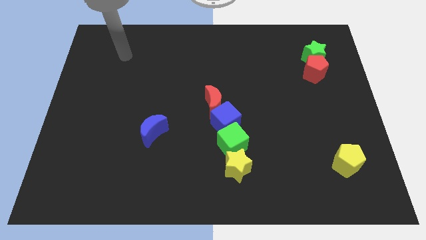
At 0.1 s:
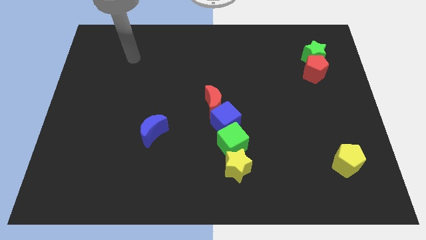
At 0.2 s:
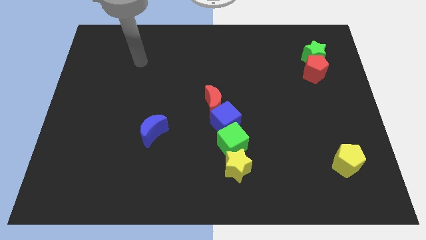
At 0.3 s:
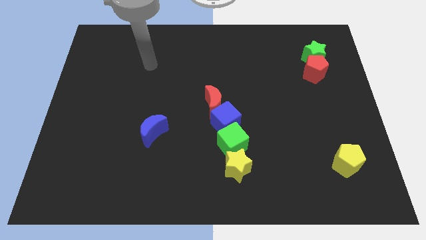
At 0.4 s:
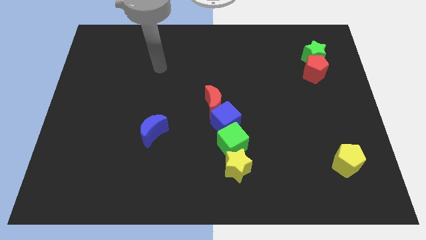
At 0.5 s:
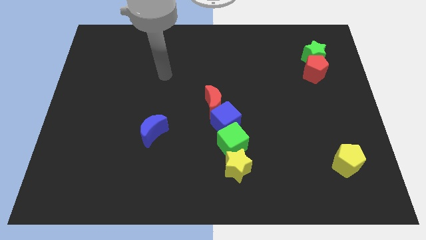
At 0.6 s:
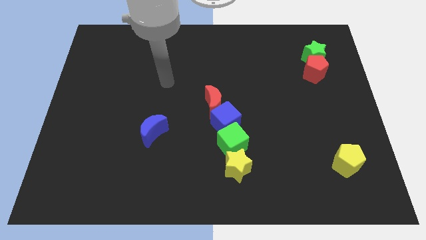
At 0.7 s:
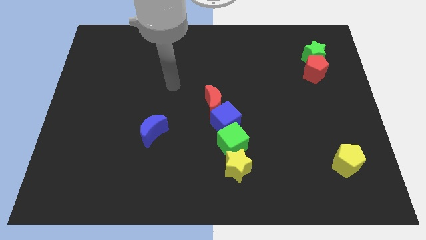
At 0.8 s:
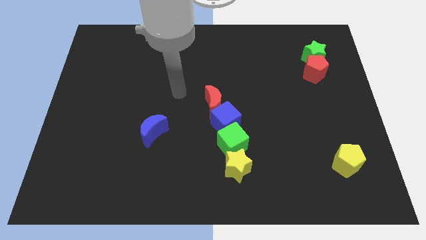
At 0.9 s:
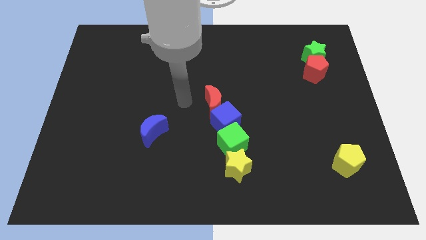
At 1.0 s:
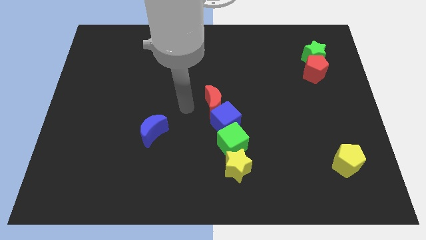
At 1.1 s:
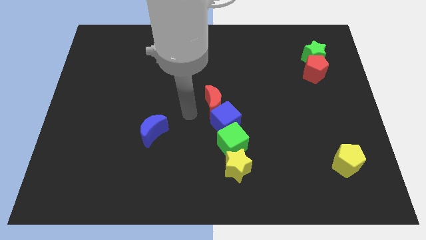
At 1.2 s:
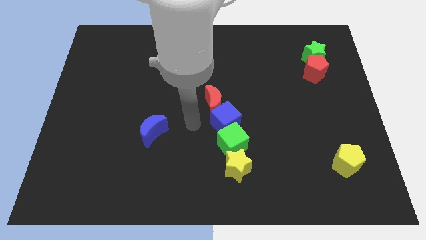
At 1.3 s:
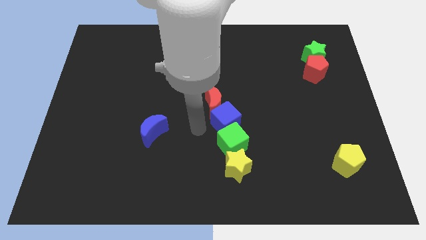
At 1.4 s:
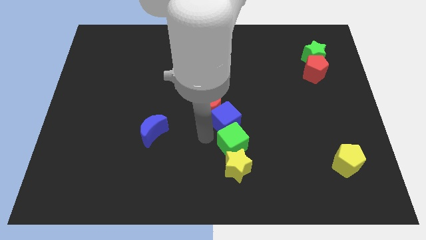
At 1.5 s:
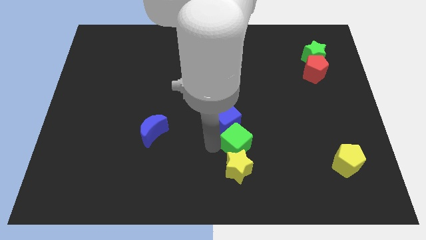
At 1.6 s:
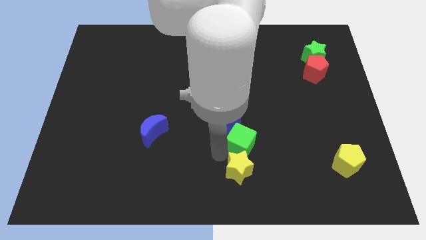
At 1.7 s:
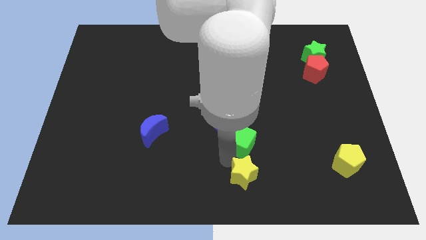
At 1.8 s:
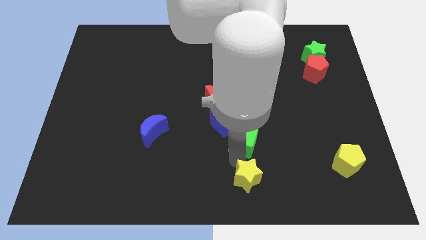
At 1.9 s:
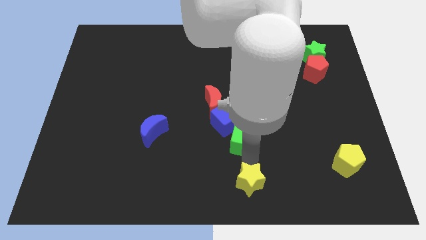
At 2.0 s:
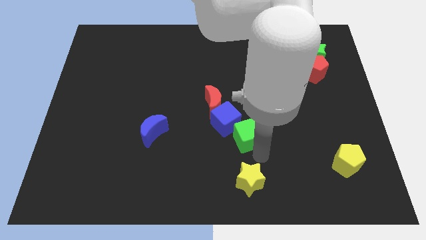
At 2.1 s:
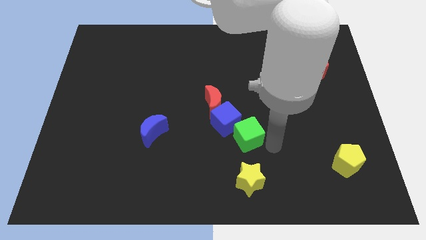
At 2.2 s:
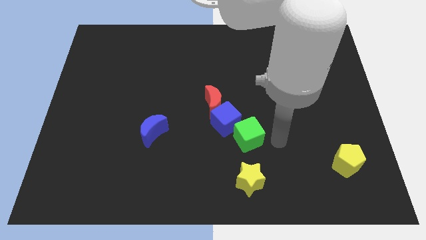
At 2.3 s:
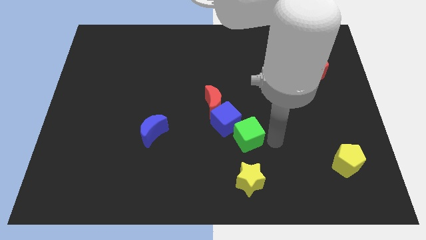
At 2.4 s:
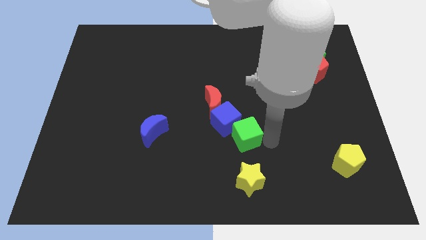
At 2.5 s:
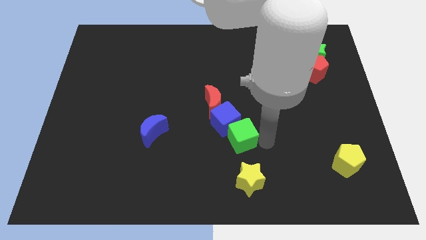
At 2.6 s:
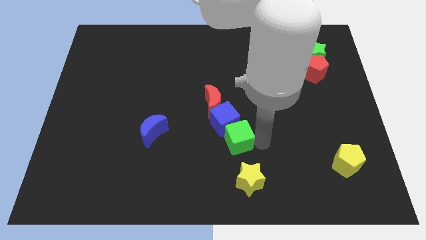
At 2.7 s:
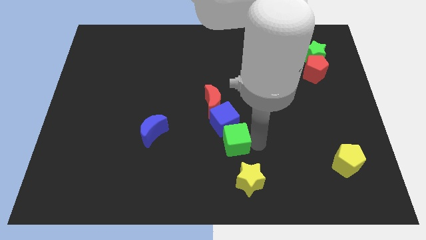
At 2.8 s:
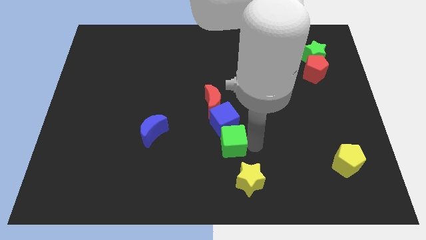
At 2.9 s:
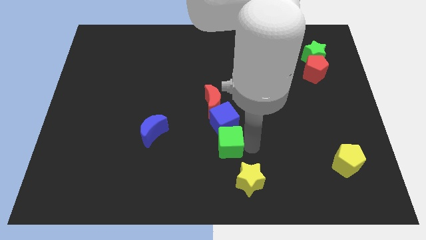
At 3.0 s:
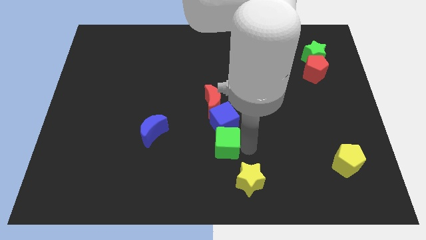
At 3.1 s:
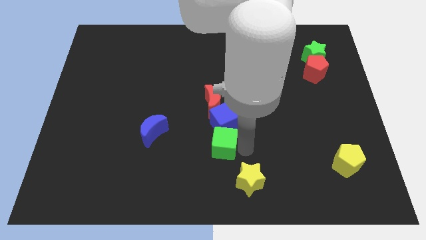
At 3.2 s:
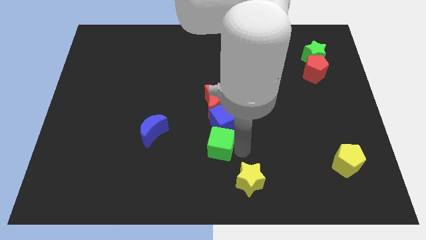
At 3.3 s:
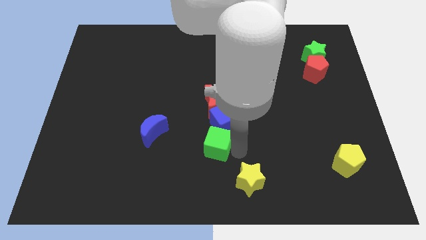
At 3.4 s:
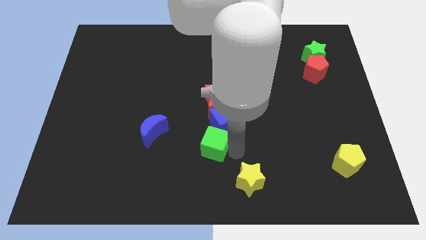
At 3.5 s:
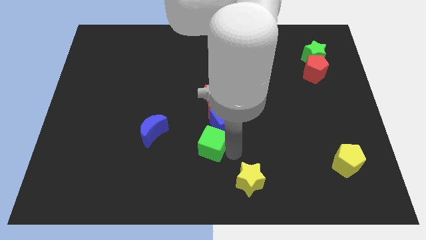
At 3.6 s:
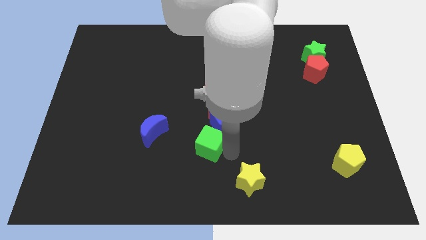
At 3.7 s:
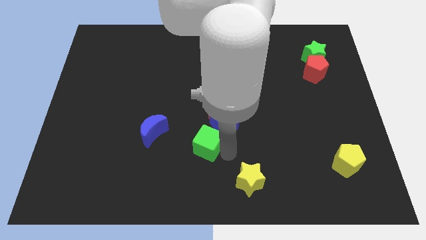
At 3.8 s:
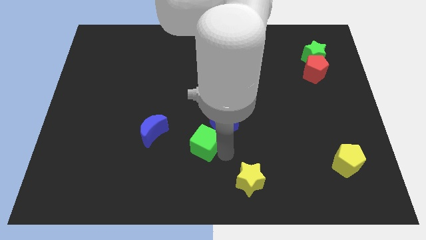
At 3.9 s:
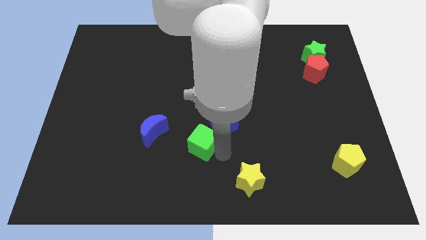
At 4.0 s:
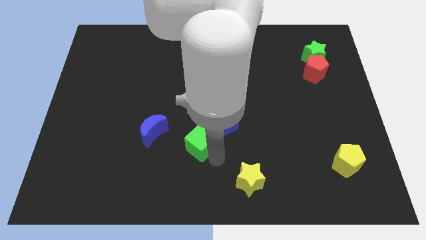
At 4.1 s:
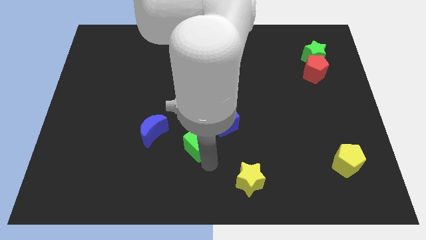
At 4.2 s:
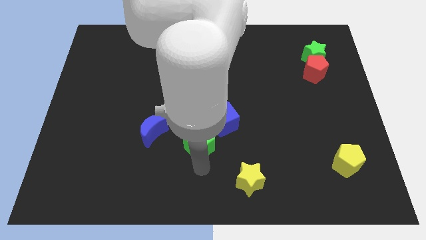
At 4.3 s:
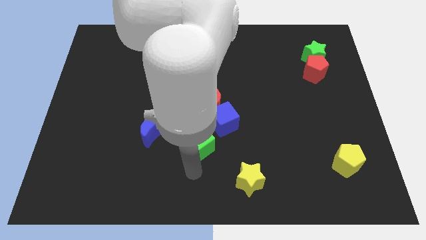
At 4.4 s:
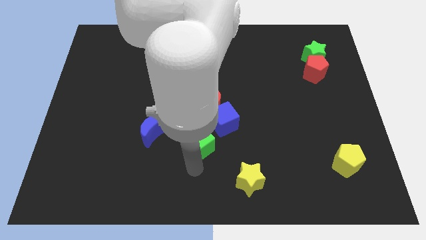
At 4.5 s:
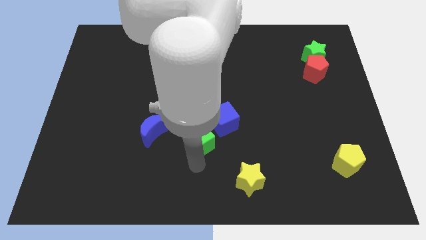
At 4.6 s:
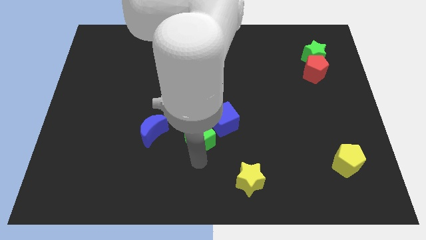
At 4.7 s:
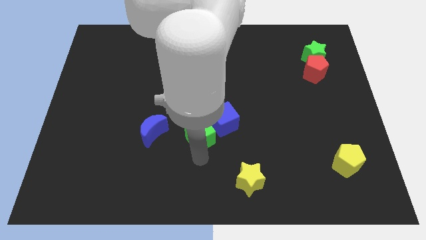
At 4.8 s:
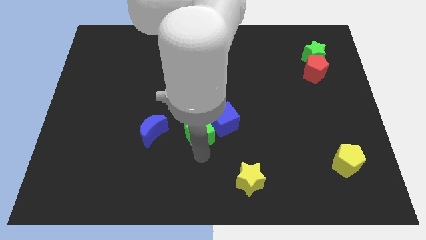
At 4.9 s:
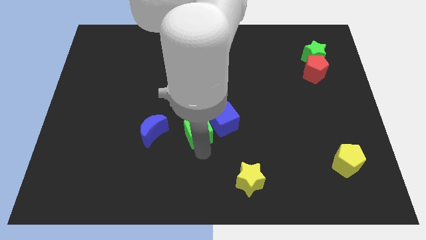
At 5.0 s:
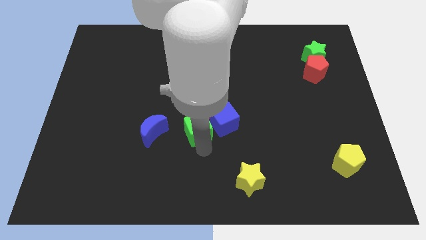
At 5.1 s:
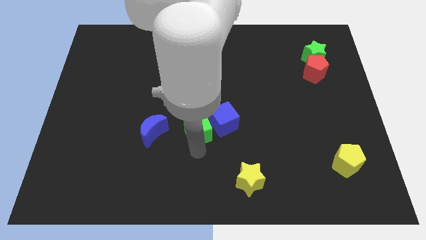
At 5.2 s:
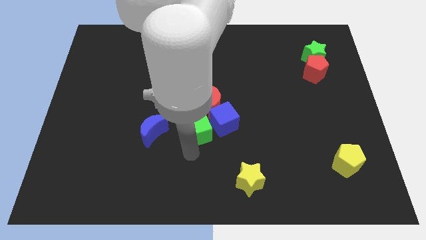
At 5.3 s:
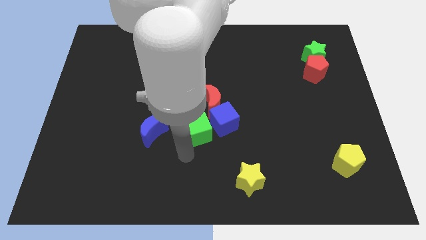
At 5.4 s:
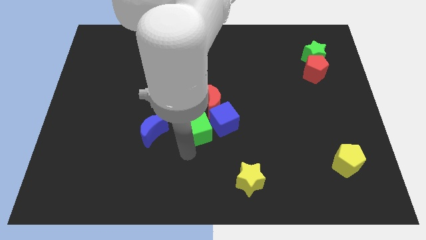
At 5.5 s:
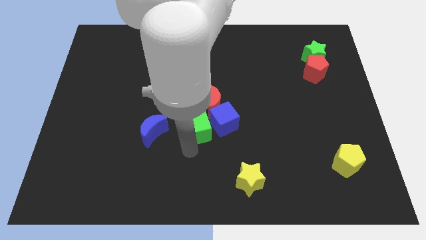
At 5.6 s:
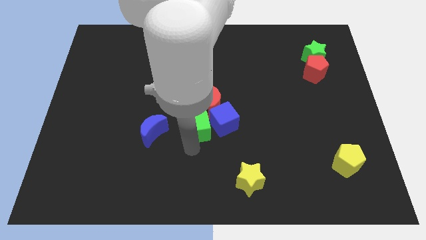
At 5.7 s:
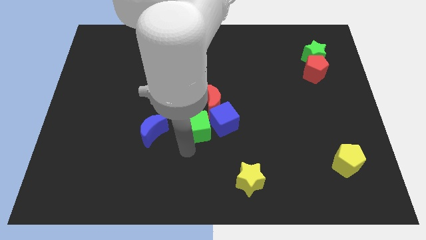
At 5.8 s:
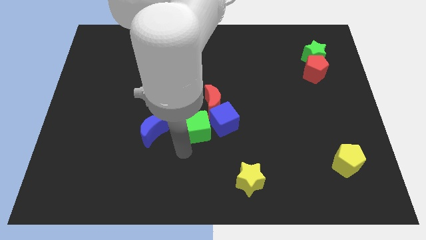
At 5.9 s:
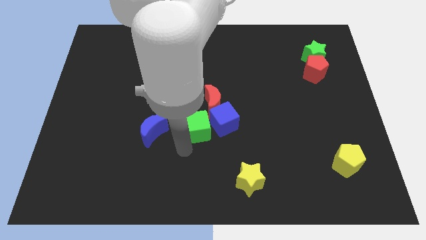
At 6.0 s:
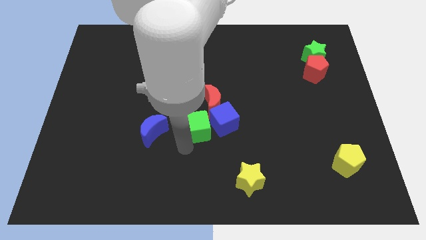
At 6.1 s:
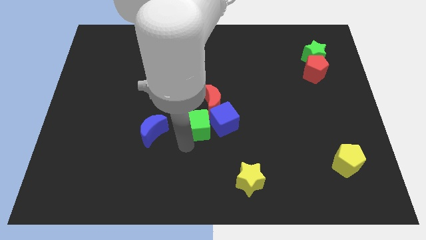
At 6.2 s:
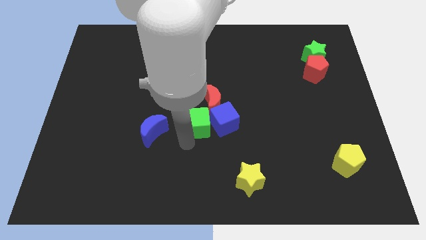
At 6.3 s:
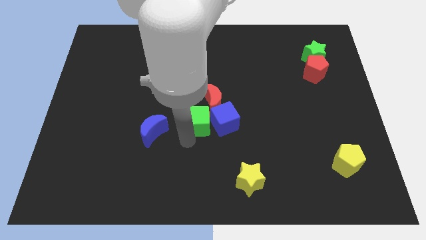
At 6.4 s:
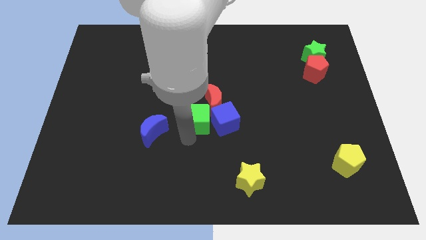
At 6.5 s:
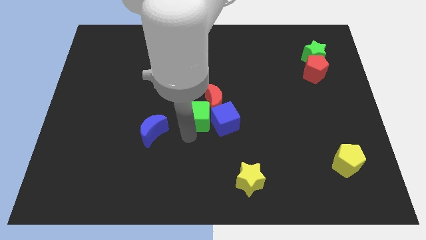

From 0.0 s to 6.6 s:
put the green cube next to the red moon

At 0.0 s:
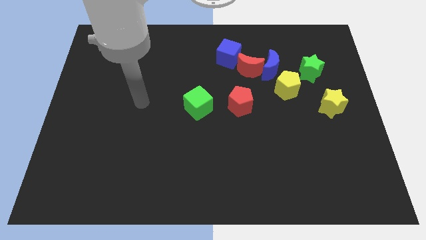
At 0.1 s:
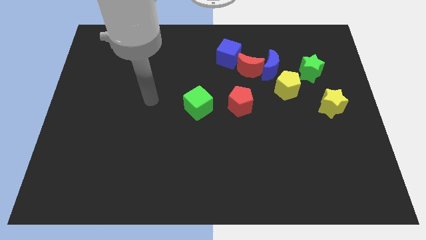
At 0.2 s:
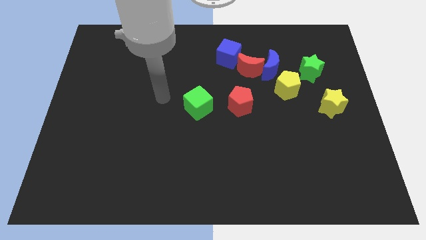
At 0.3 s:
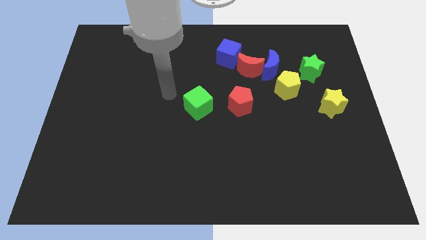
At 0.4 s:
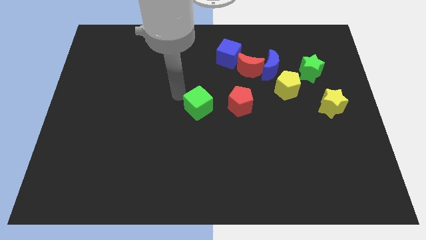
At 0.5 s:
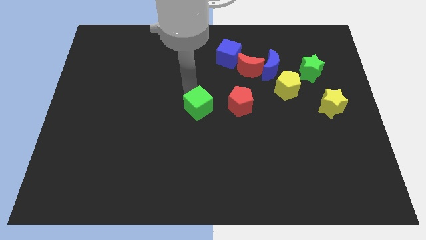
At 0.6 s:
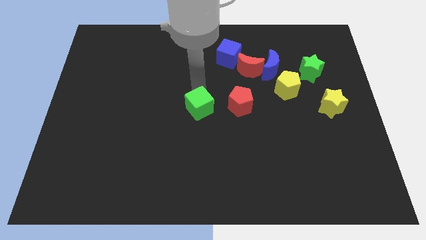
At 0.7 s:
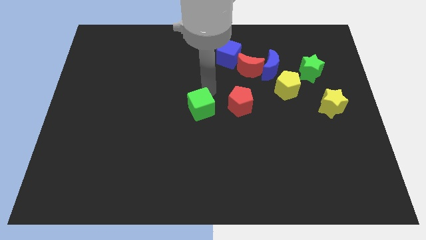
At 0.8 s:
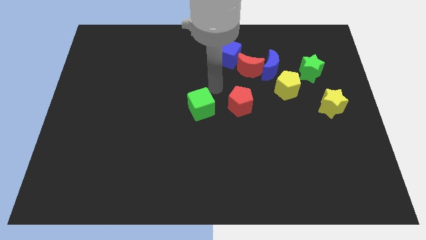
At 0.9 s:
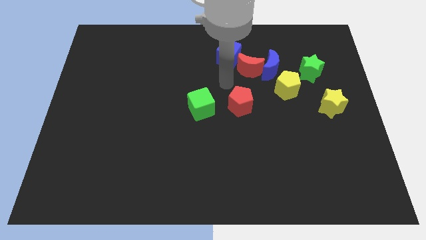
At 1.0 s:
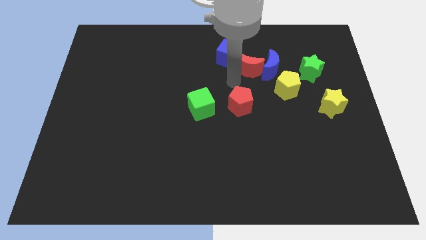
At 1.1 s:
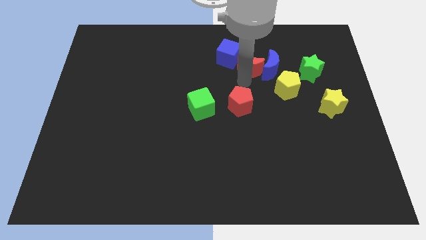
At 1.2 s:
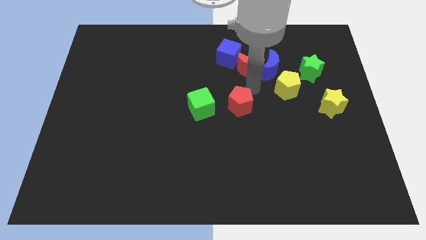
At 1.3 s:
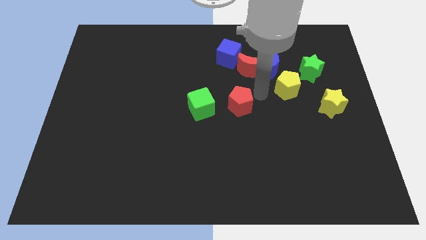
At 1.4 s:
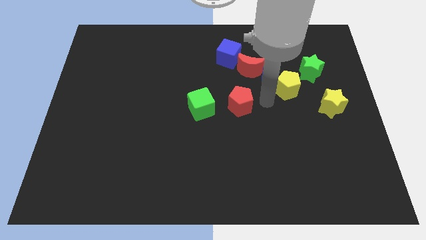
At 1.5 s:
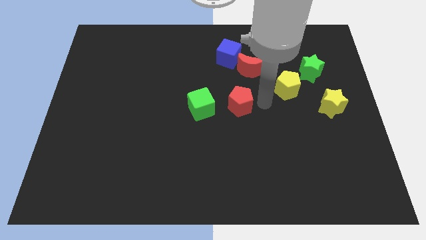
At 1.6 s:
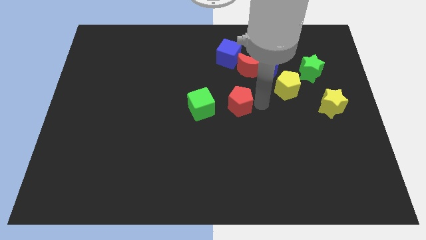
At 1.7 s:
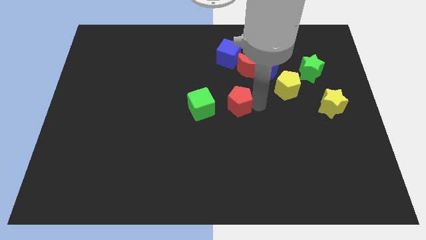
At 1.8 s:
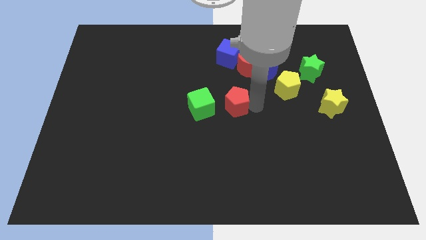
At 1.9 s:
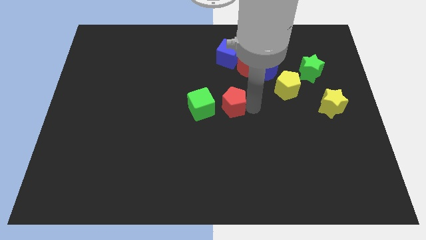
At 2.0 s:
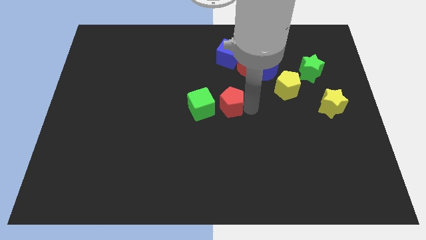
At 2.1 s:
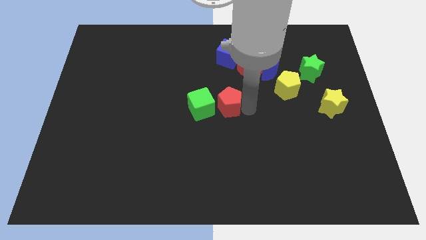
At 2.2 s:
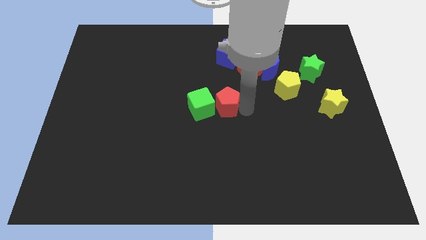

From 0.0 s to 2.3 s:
push the red pentagon towards the green cube
